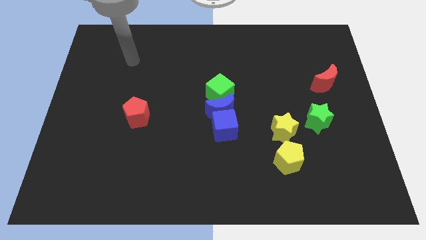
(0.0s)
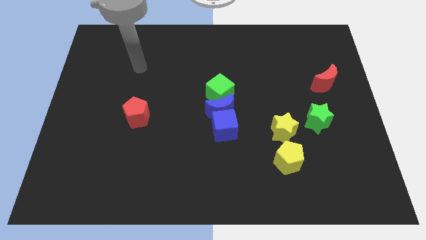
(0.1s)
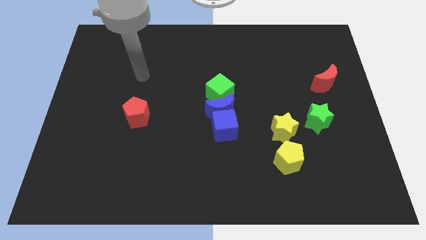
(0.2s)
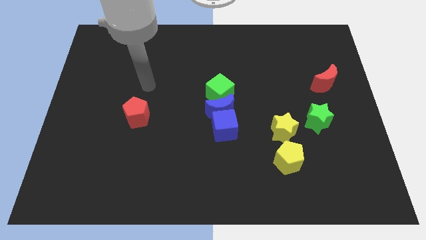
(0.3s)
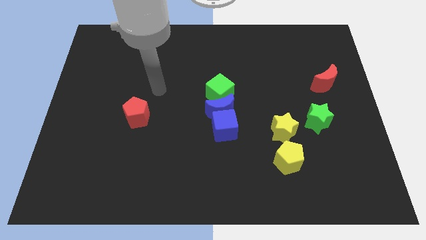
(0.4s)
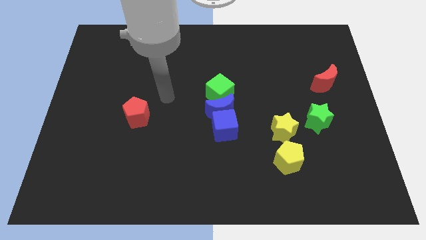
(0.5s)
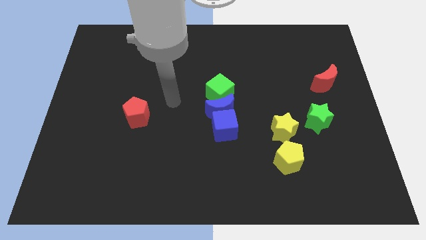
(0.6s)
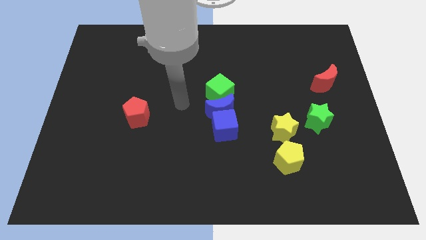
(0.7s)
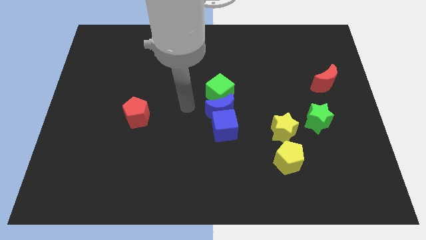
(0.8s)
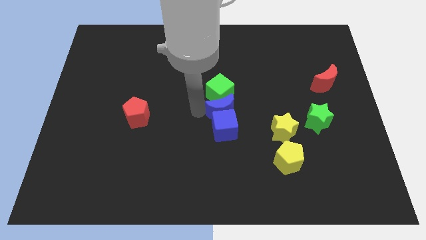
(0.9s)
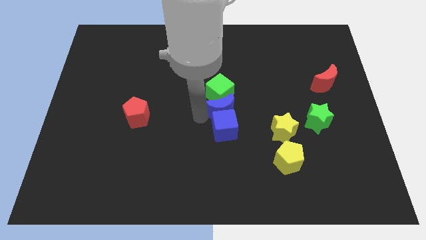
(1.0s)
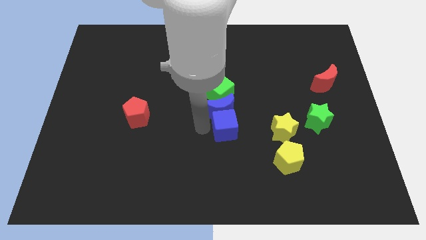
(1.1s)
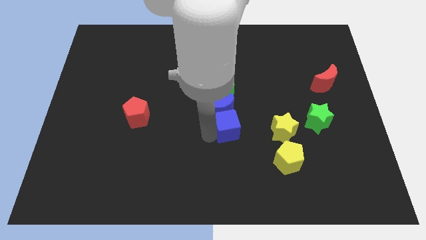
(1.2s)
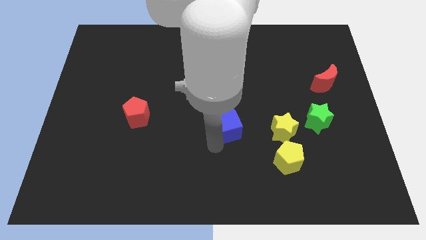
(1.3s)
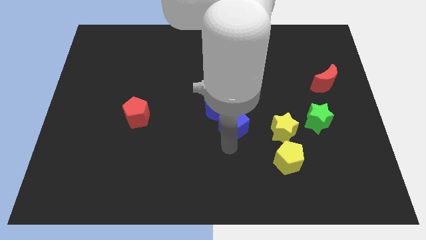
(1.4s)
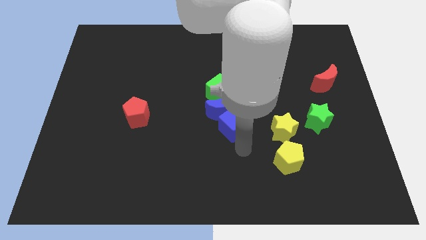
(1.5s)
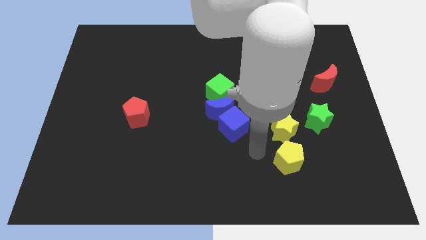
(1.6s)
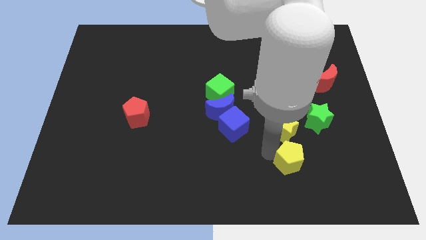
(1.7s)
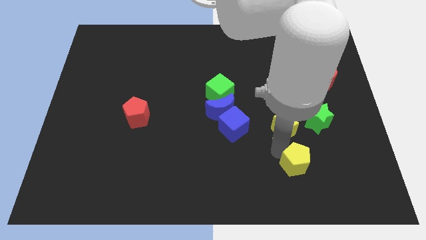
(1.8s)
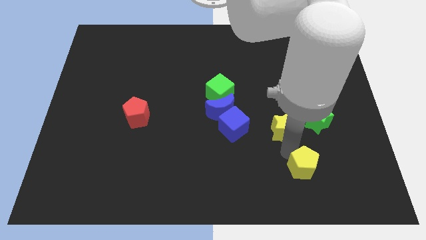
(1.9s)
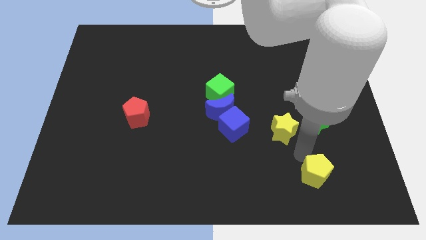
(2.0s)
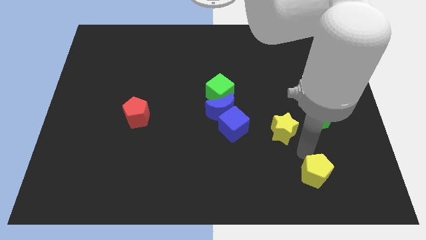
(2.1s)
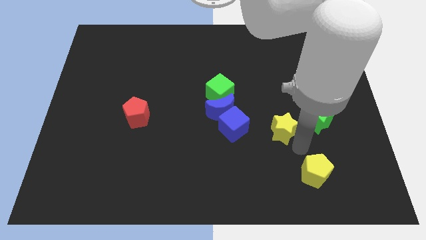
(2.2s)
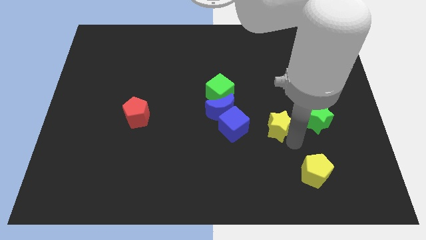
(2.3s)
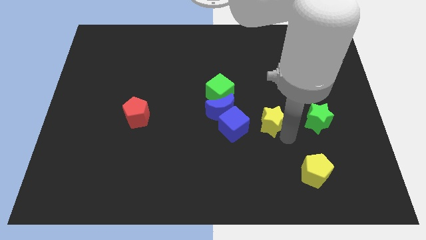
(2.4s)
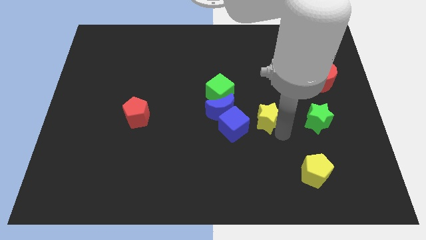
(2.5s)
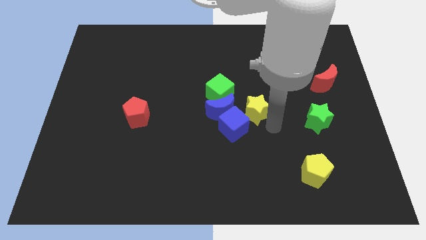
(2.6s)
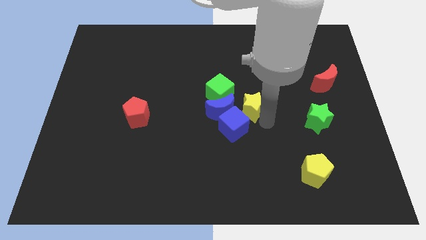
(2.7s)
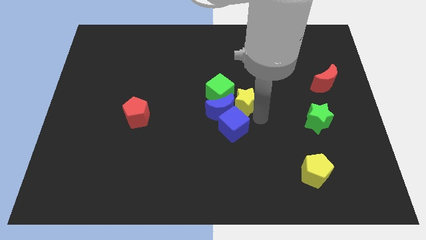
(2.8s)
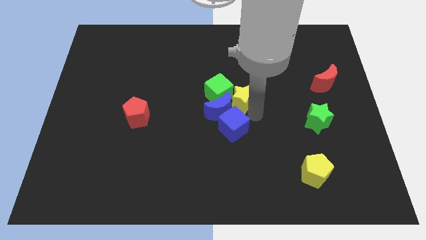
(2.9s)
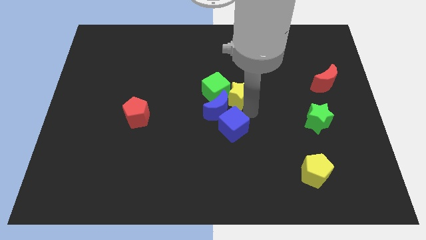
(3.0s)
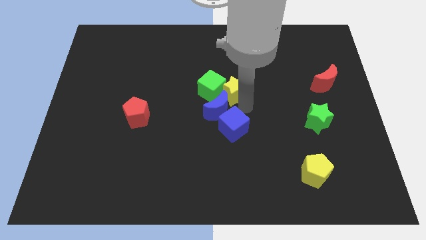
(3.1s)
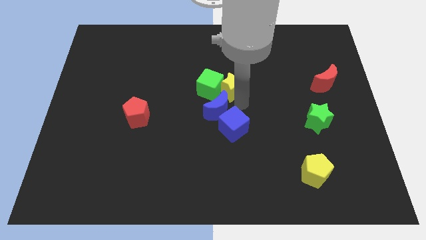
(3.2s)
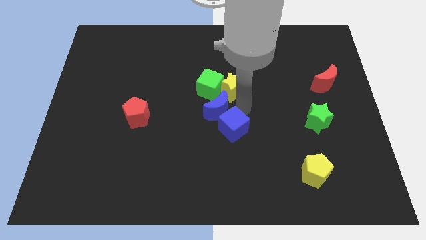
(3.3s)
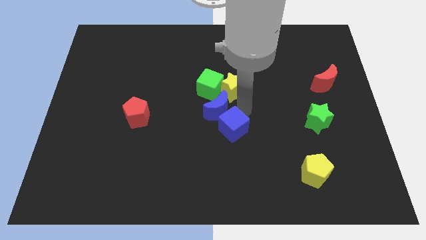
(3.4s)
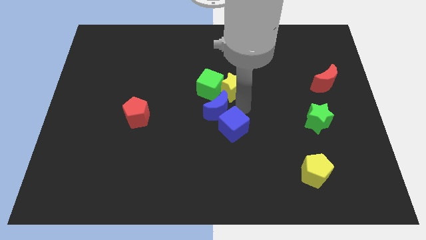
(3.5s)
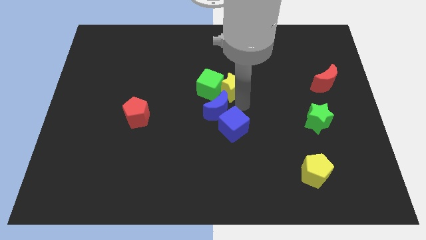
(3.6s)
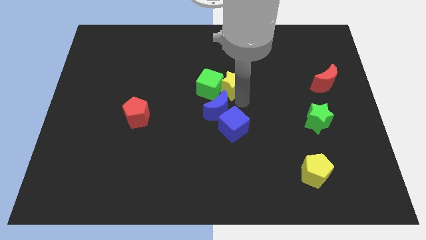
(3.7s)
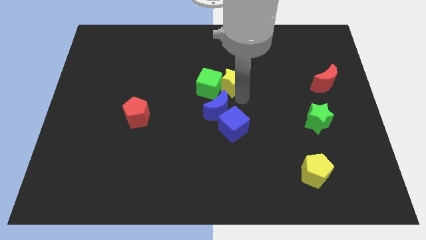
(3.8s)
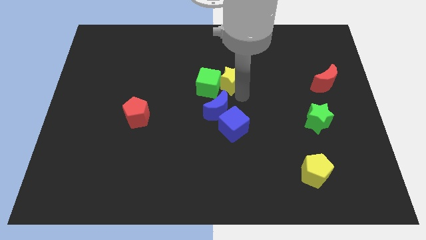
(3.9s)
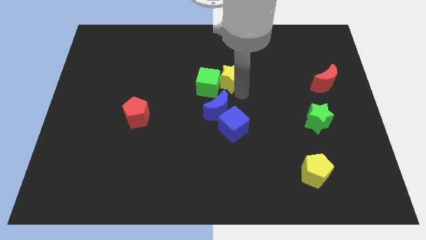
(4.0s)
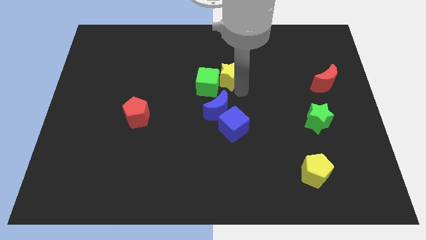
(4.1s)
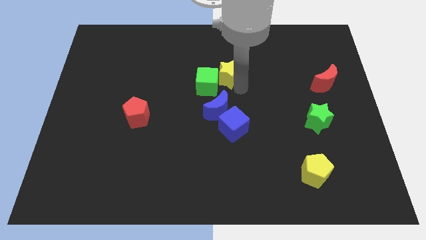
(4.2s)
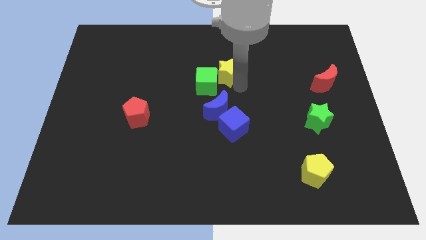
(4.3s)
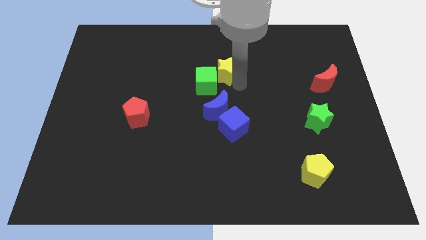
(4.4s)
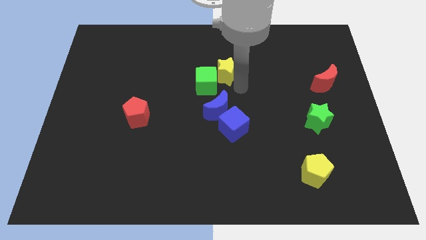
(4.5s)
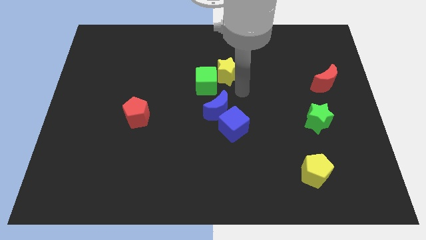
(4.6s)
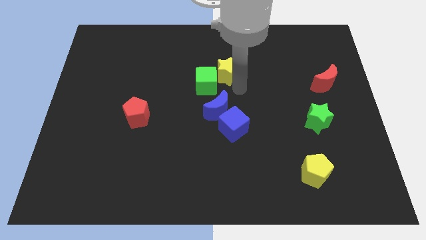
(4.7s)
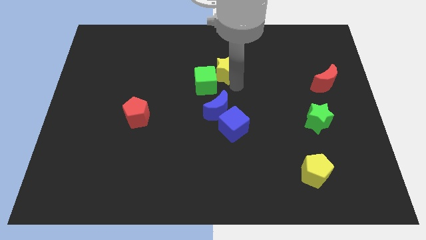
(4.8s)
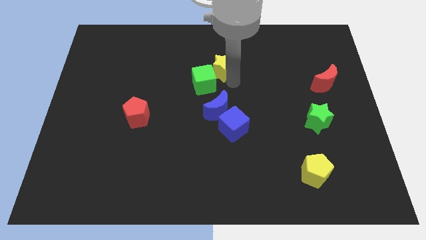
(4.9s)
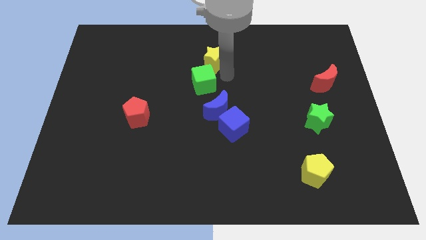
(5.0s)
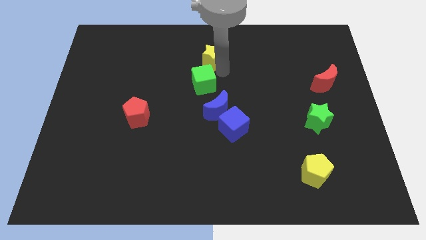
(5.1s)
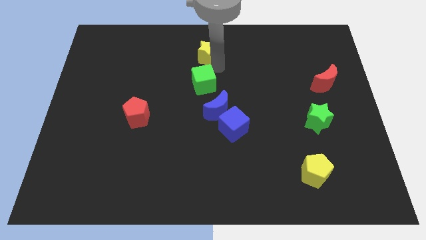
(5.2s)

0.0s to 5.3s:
put the yellow star to the towards your base

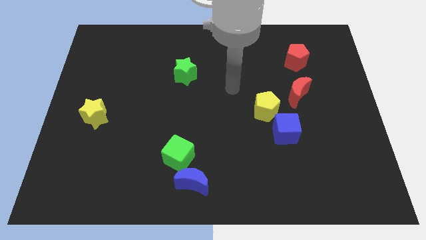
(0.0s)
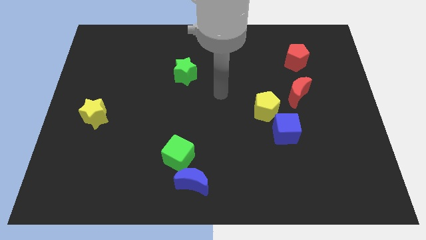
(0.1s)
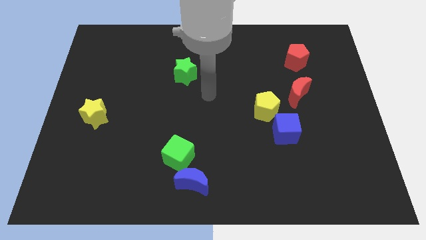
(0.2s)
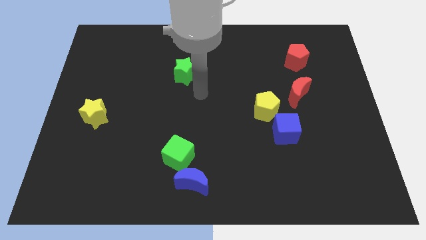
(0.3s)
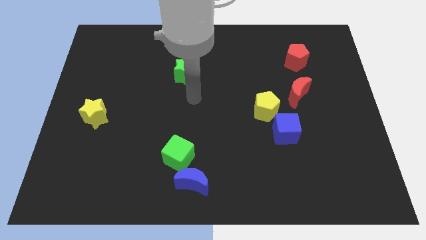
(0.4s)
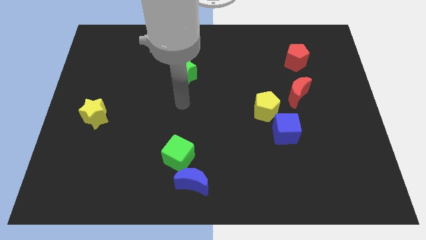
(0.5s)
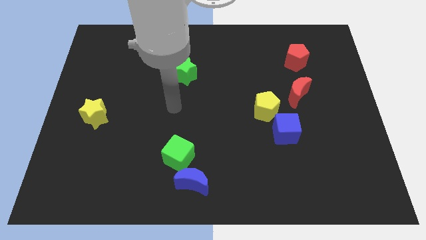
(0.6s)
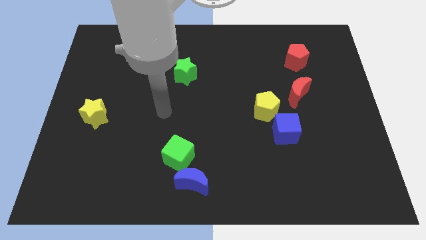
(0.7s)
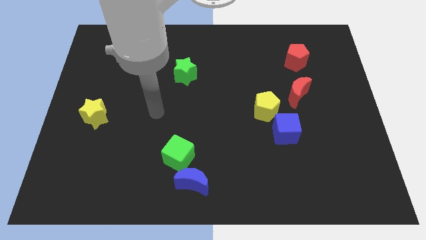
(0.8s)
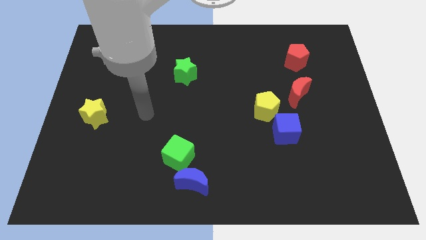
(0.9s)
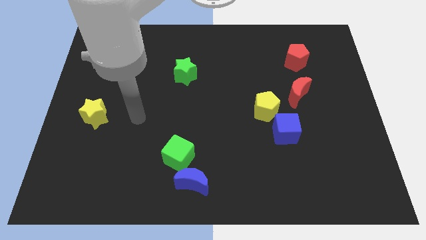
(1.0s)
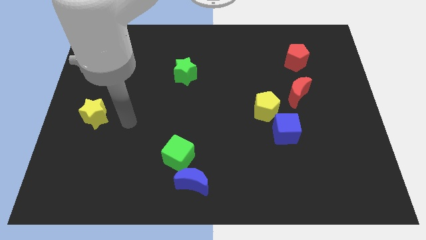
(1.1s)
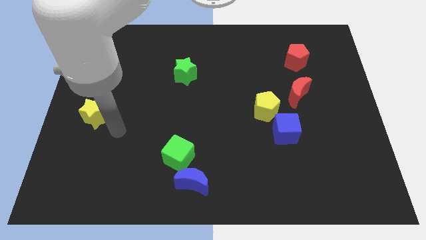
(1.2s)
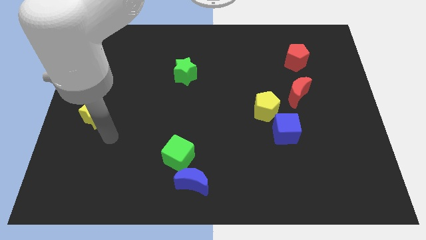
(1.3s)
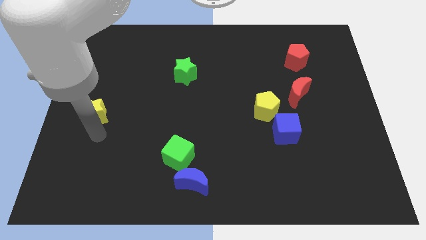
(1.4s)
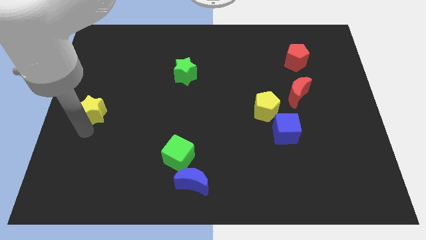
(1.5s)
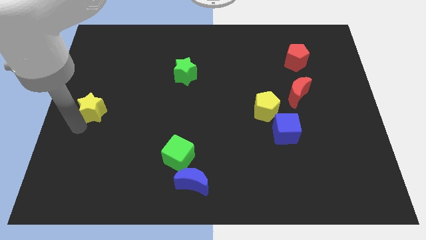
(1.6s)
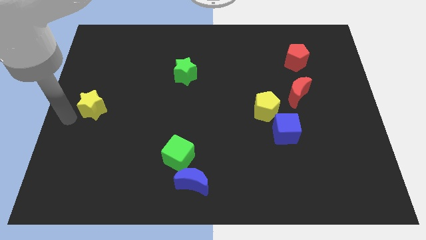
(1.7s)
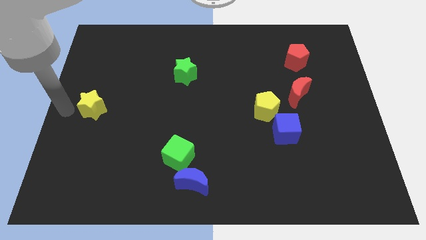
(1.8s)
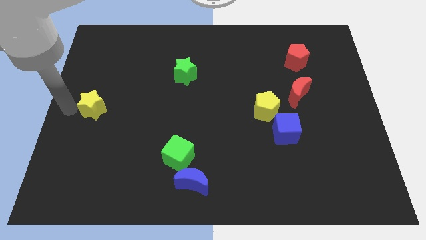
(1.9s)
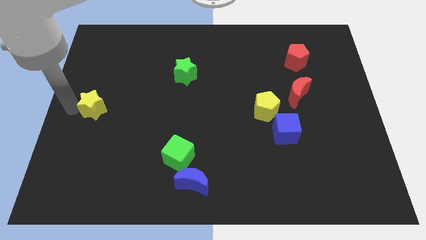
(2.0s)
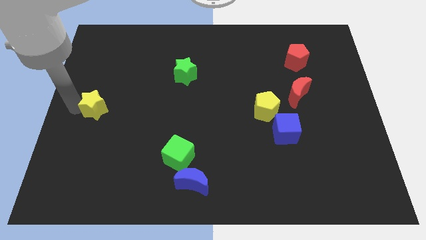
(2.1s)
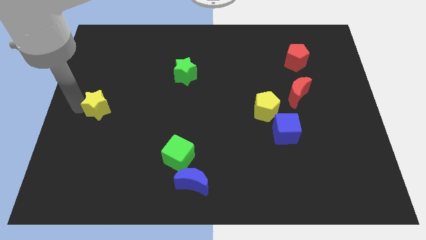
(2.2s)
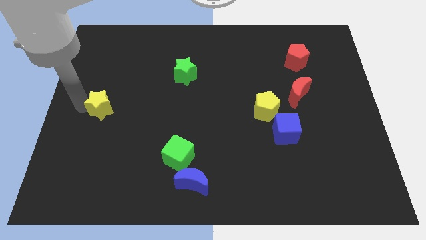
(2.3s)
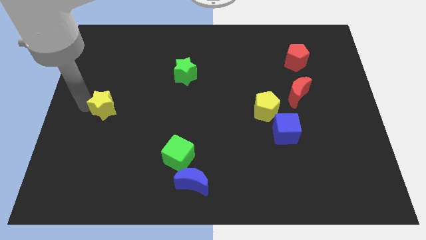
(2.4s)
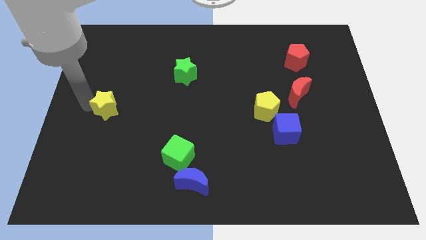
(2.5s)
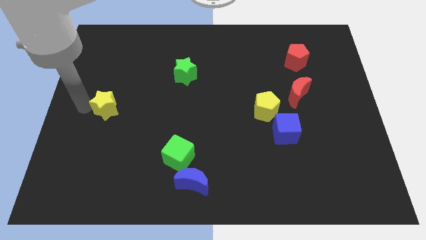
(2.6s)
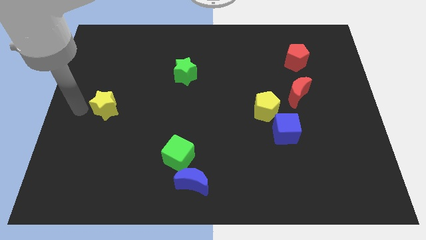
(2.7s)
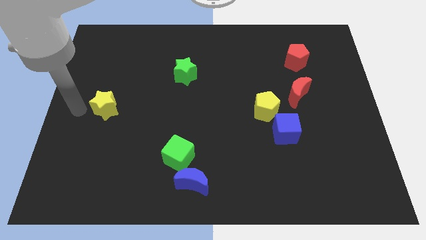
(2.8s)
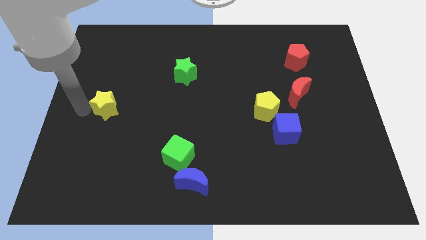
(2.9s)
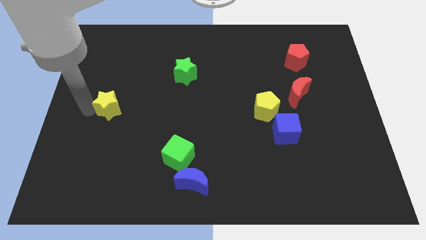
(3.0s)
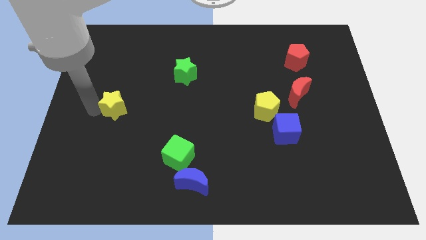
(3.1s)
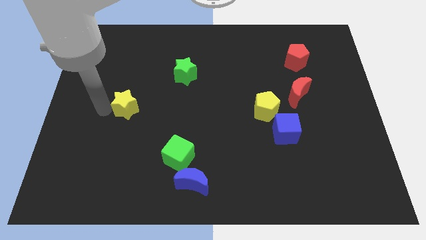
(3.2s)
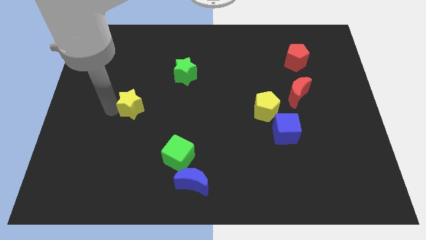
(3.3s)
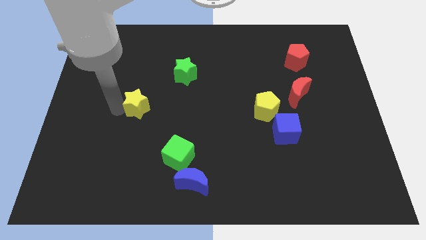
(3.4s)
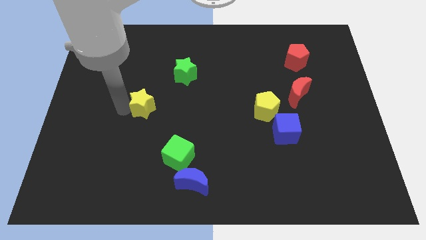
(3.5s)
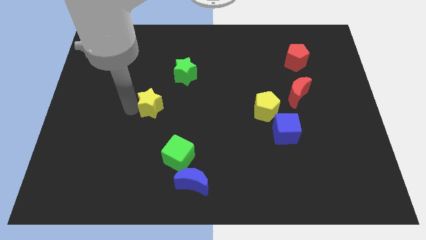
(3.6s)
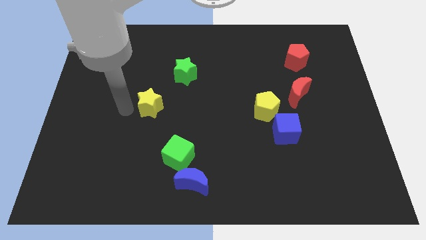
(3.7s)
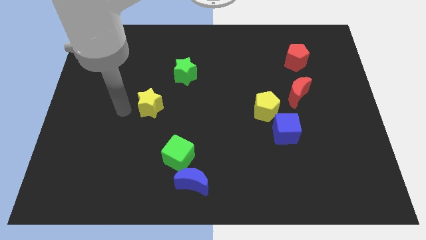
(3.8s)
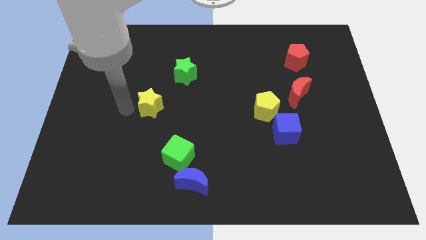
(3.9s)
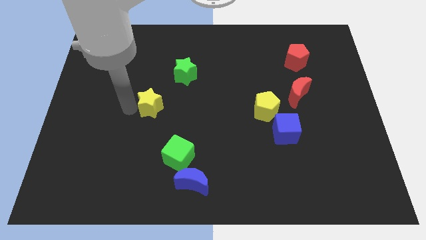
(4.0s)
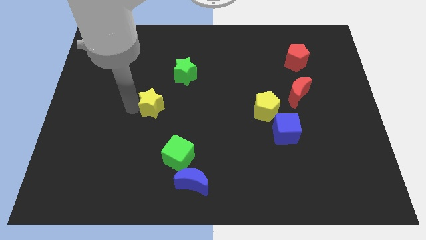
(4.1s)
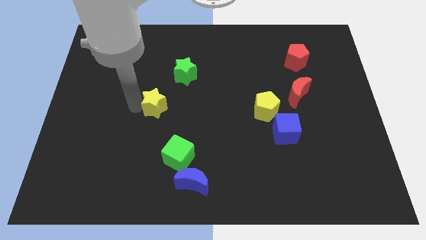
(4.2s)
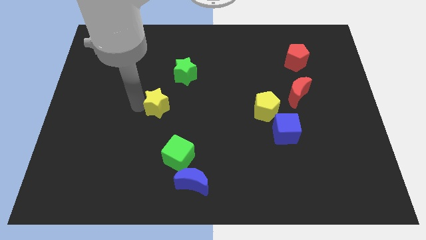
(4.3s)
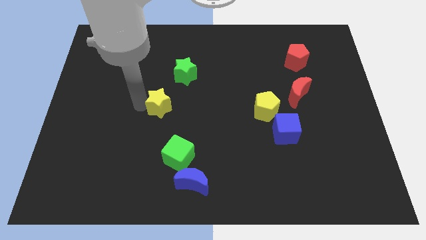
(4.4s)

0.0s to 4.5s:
put the yellow star to the middle of the board
